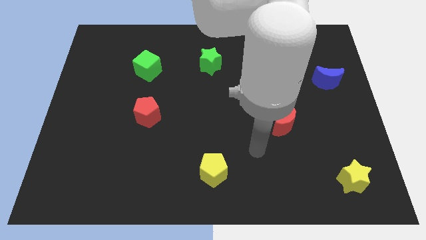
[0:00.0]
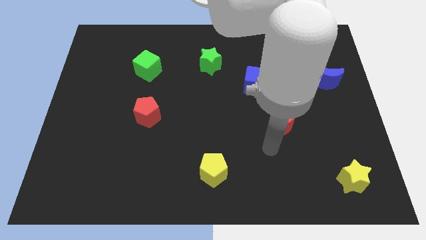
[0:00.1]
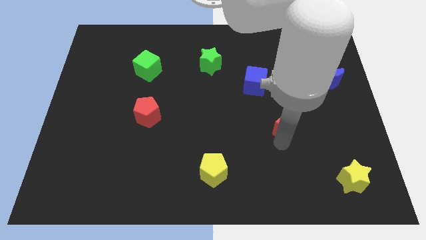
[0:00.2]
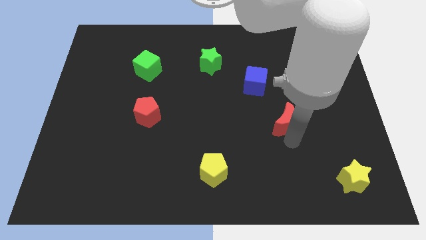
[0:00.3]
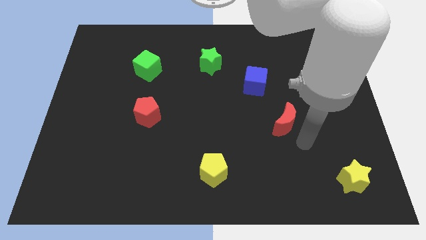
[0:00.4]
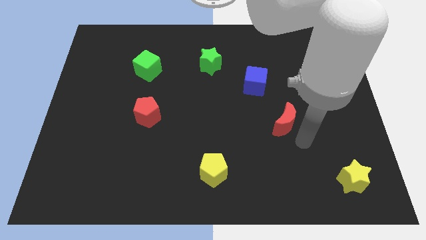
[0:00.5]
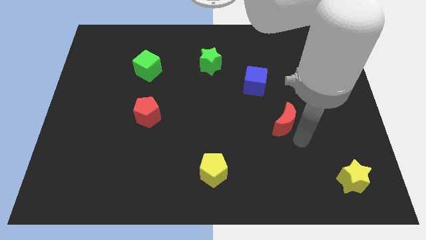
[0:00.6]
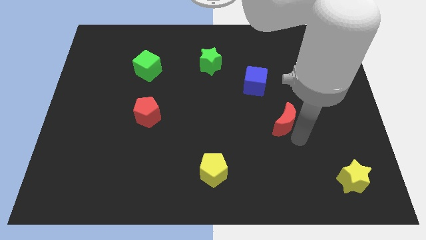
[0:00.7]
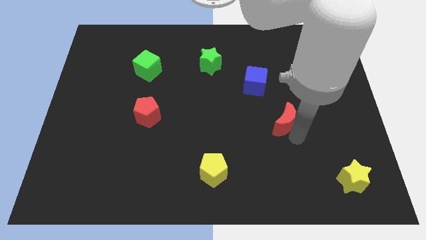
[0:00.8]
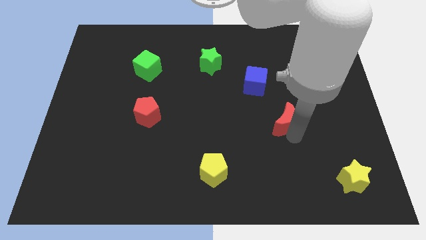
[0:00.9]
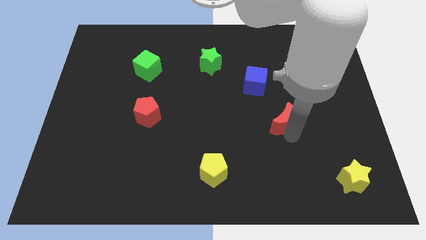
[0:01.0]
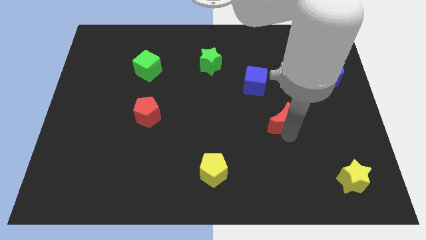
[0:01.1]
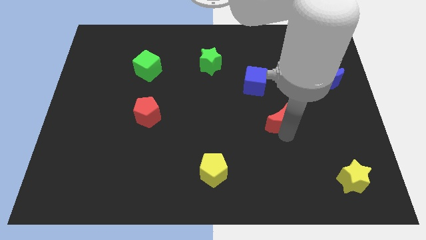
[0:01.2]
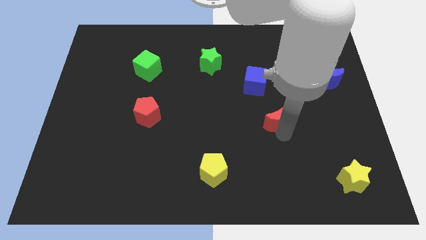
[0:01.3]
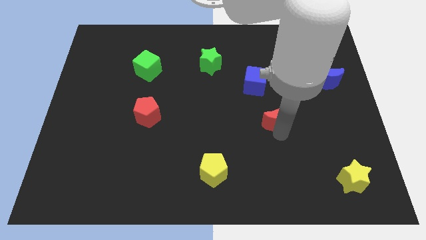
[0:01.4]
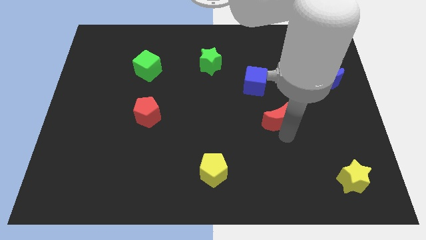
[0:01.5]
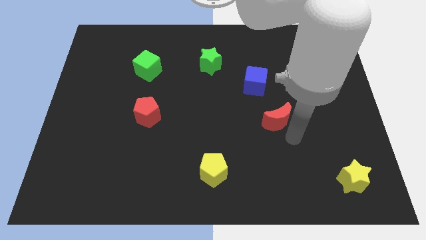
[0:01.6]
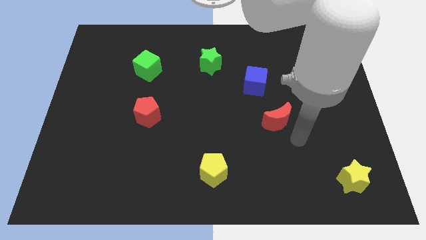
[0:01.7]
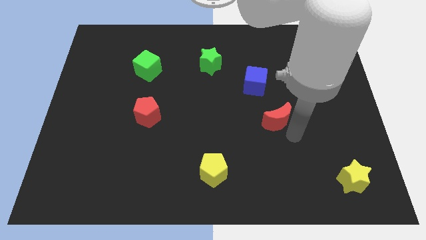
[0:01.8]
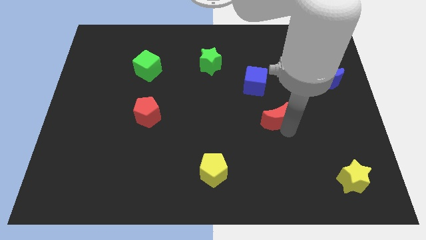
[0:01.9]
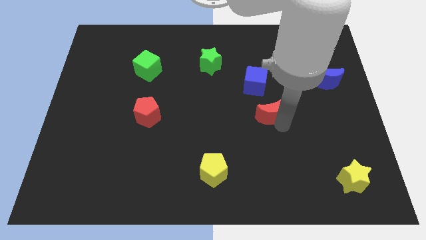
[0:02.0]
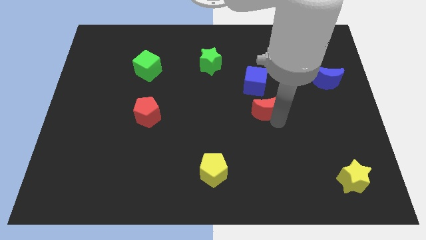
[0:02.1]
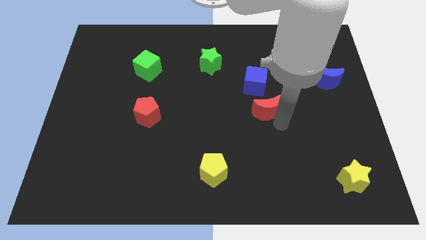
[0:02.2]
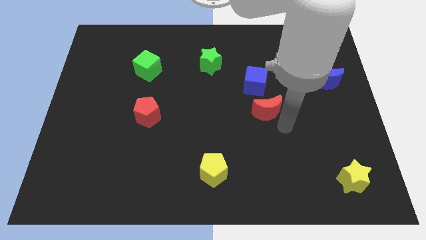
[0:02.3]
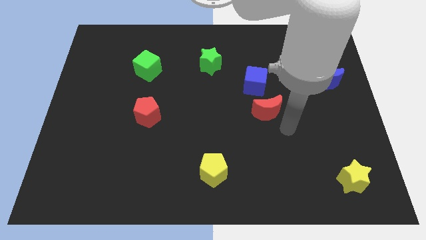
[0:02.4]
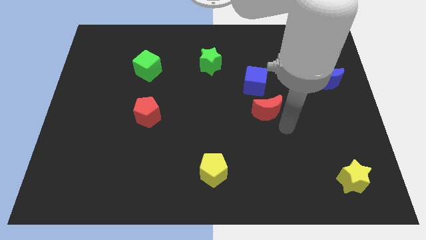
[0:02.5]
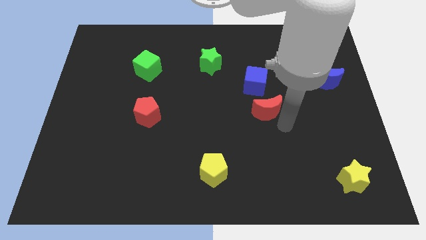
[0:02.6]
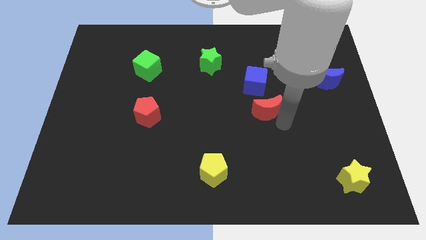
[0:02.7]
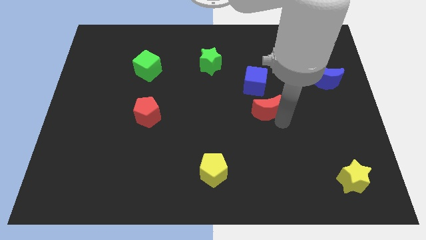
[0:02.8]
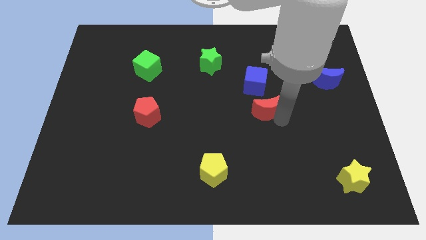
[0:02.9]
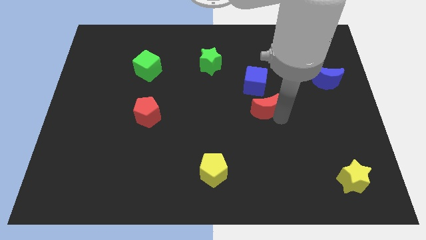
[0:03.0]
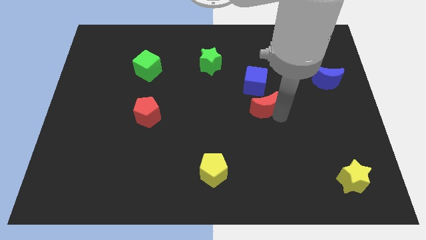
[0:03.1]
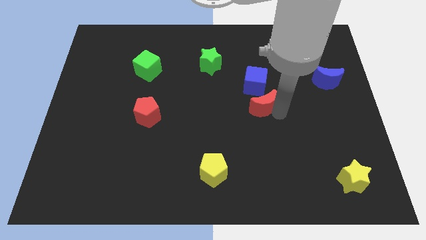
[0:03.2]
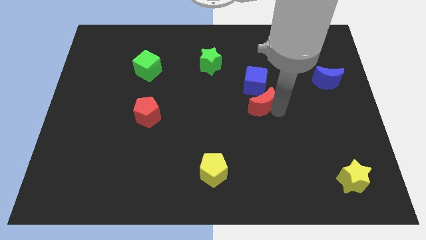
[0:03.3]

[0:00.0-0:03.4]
slightly slide the red moon up and to the left

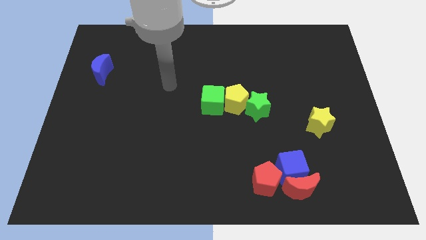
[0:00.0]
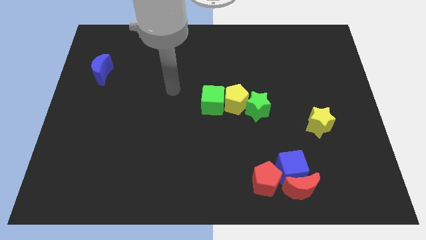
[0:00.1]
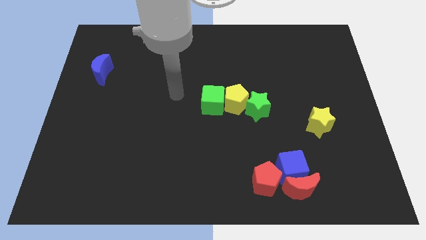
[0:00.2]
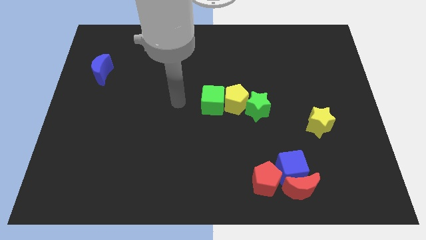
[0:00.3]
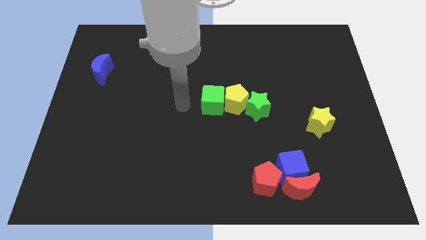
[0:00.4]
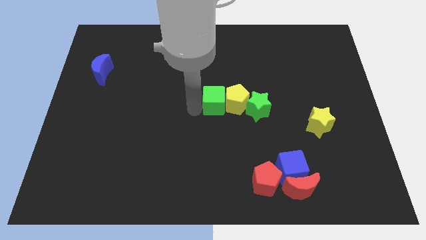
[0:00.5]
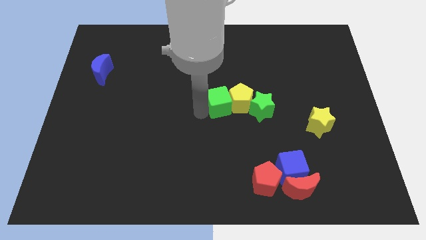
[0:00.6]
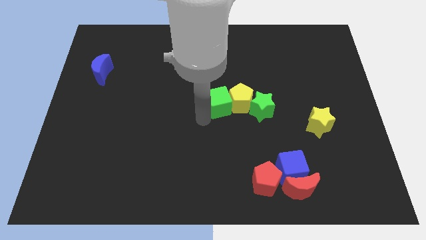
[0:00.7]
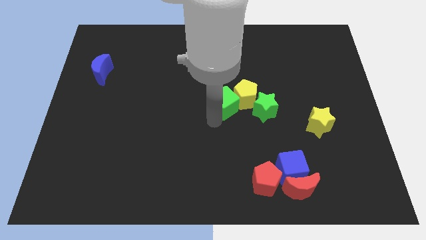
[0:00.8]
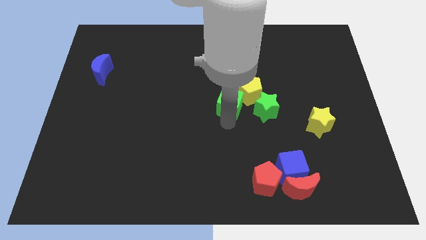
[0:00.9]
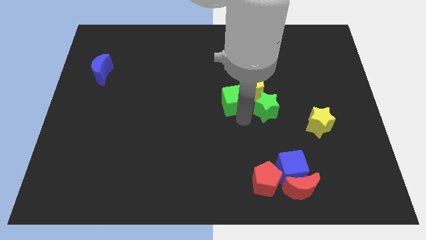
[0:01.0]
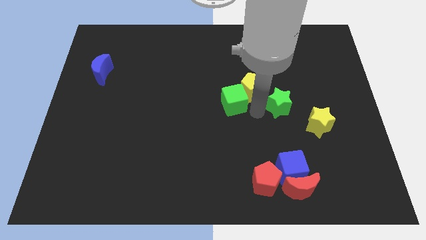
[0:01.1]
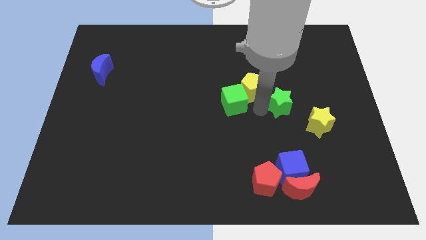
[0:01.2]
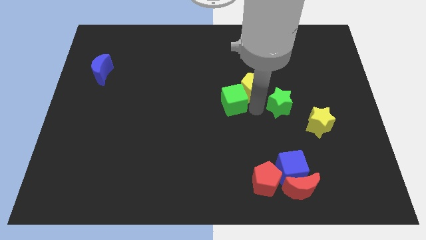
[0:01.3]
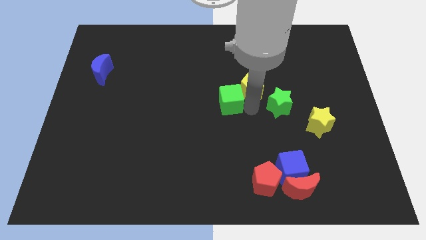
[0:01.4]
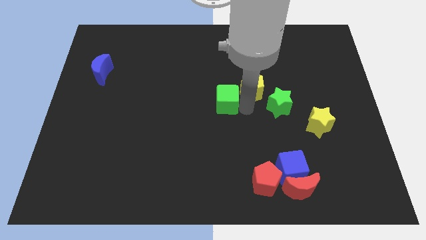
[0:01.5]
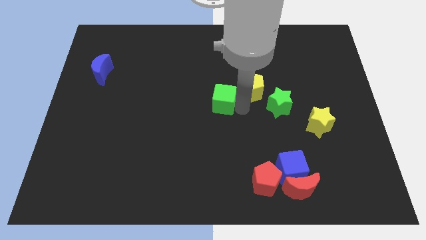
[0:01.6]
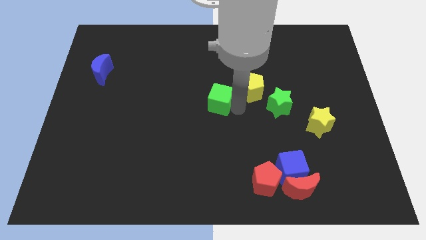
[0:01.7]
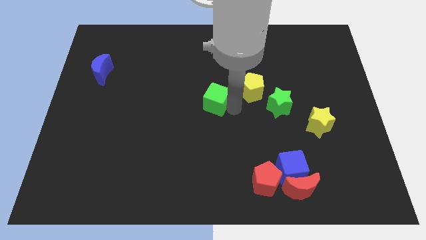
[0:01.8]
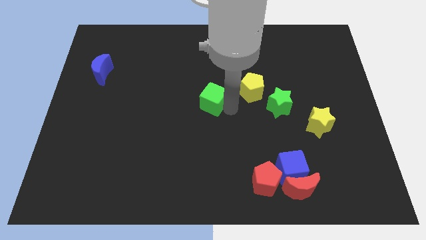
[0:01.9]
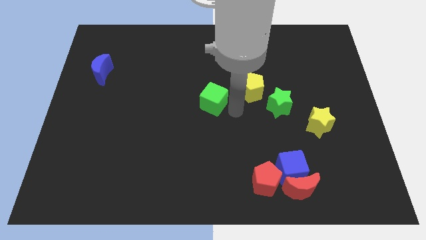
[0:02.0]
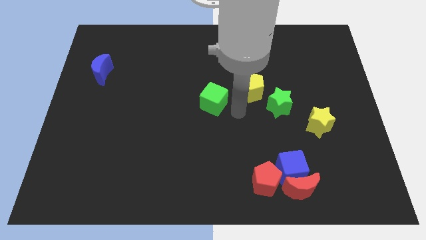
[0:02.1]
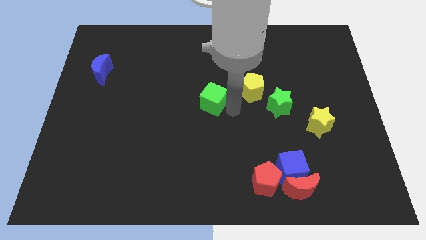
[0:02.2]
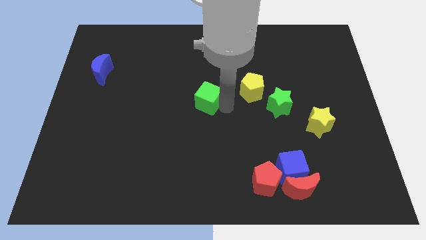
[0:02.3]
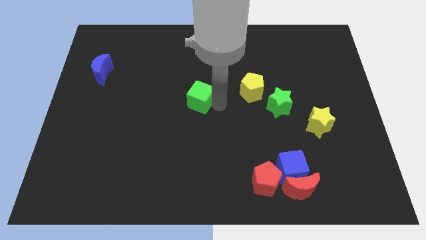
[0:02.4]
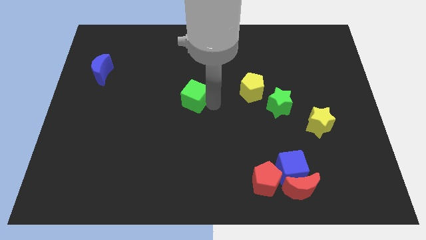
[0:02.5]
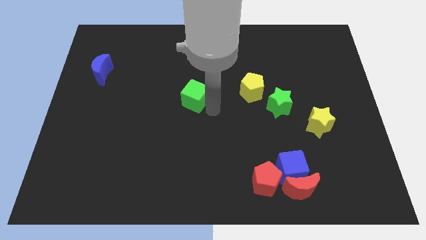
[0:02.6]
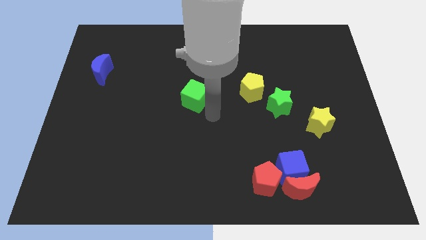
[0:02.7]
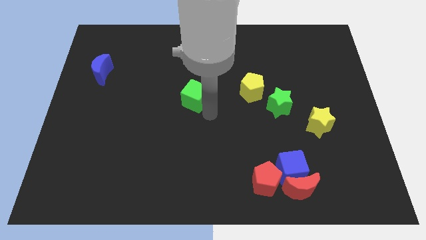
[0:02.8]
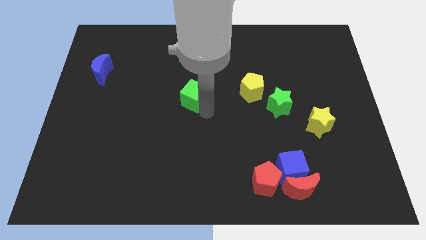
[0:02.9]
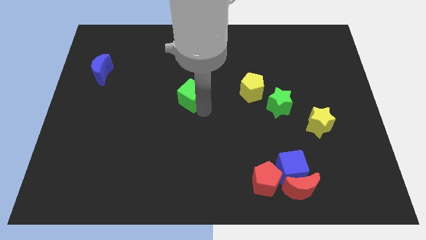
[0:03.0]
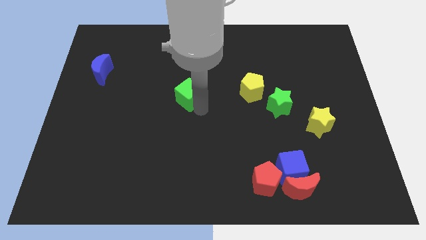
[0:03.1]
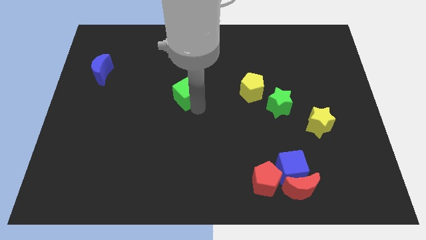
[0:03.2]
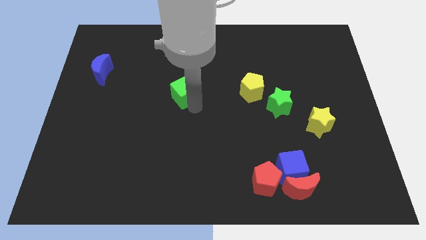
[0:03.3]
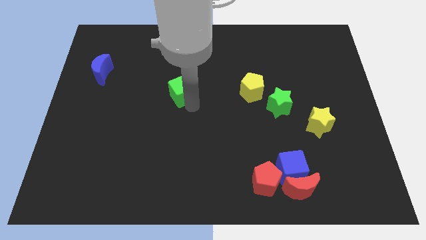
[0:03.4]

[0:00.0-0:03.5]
slightly slide the green cube upwards and left

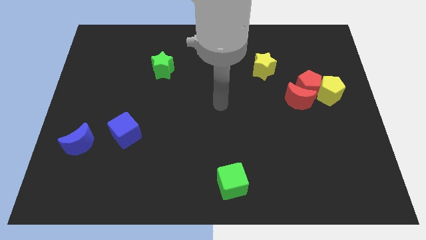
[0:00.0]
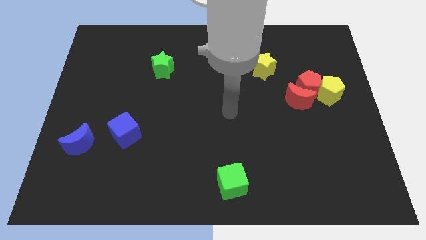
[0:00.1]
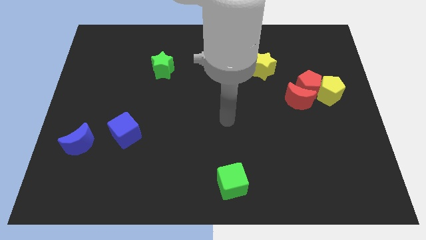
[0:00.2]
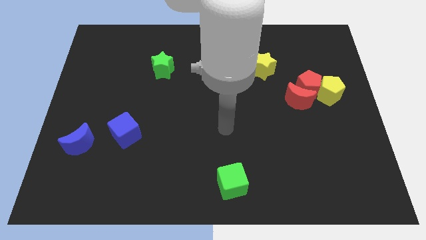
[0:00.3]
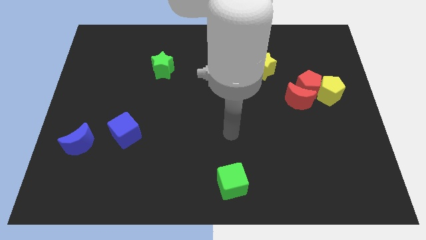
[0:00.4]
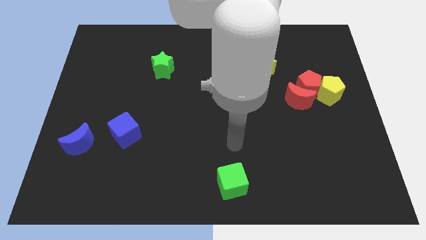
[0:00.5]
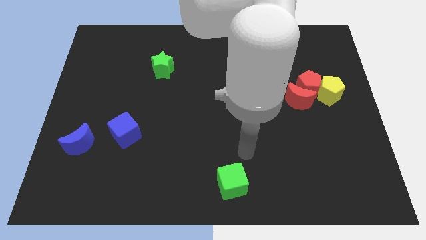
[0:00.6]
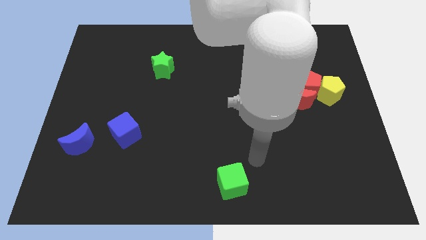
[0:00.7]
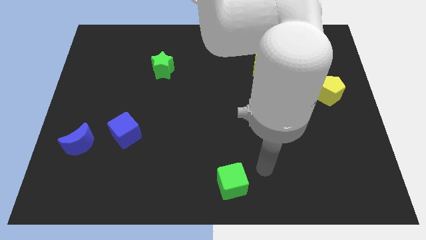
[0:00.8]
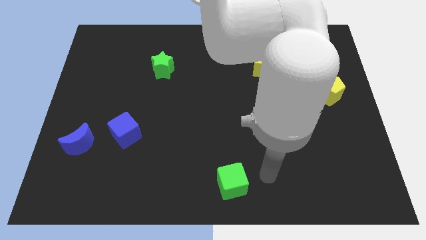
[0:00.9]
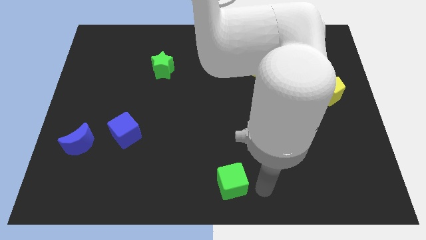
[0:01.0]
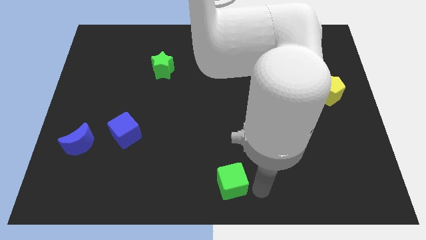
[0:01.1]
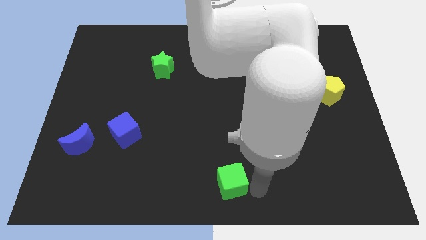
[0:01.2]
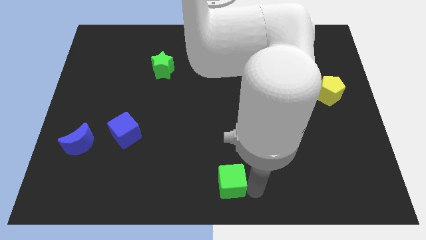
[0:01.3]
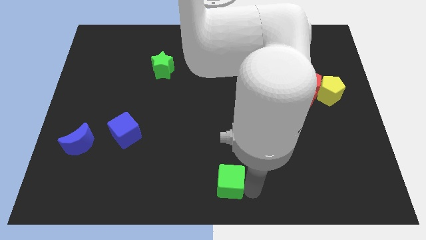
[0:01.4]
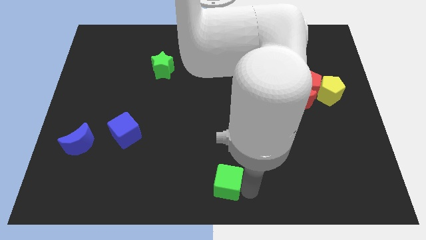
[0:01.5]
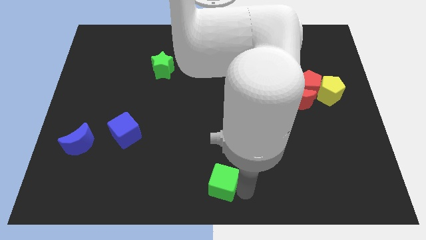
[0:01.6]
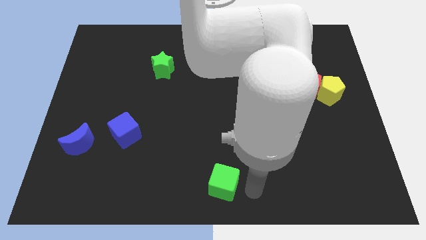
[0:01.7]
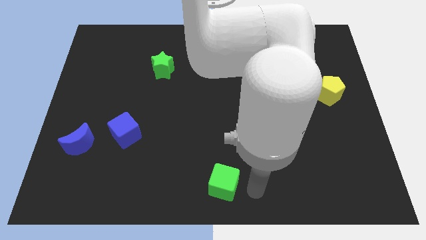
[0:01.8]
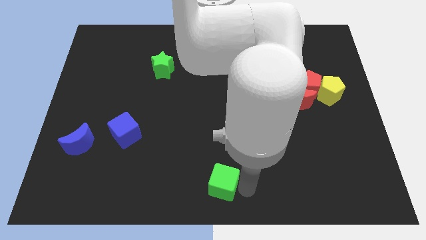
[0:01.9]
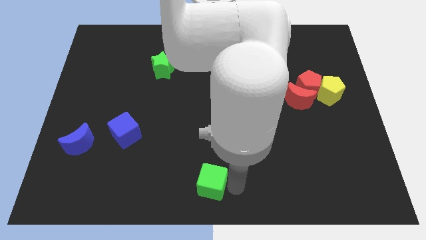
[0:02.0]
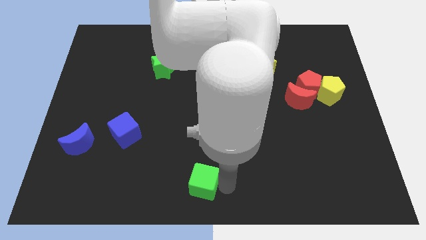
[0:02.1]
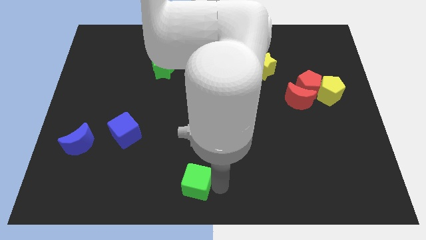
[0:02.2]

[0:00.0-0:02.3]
push the green cube to the left somewhat
